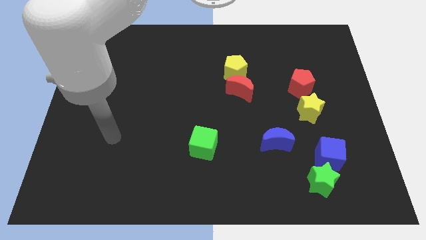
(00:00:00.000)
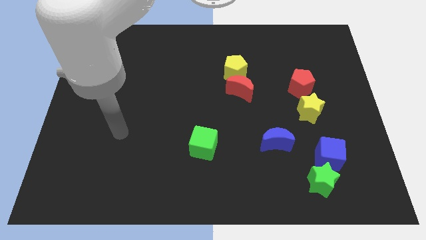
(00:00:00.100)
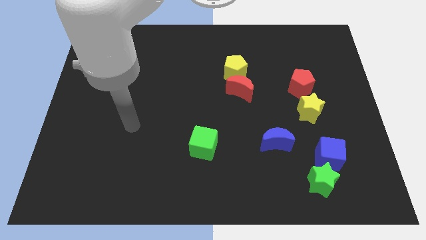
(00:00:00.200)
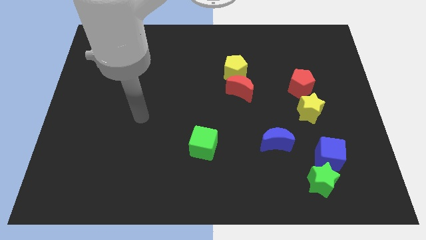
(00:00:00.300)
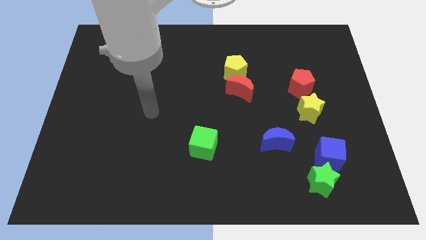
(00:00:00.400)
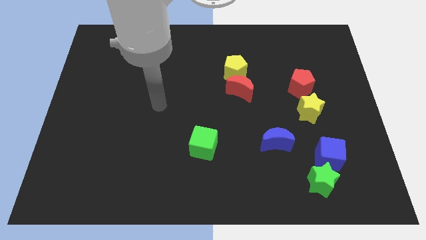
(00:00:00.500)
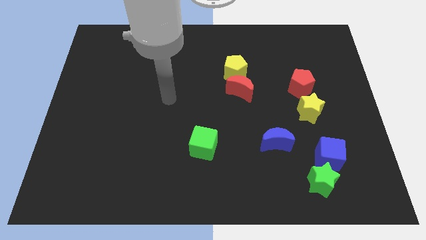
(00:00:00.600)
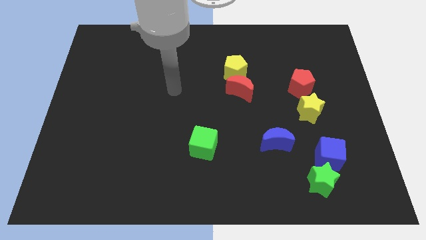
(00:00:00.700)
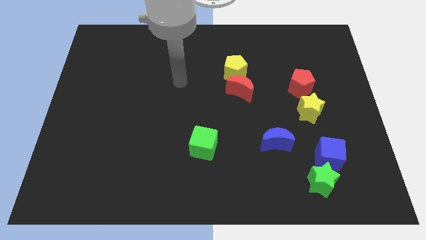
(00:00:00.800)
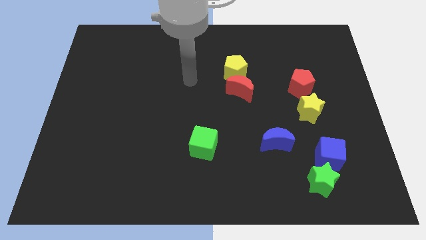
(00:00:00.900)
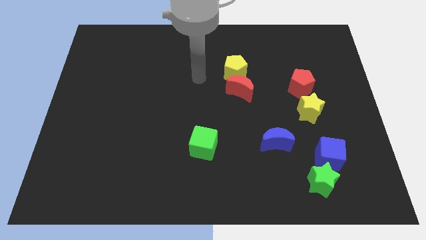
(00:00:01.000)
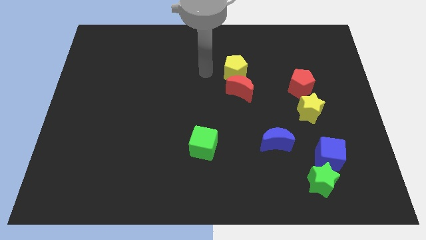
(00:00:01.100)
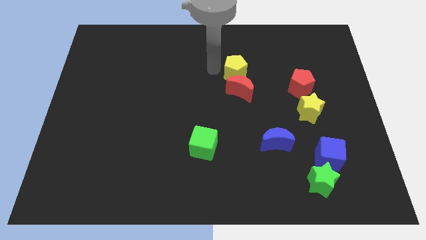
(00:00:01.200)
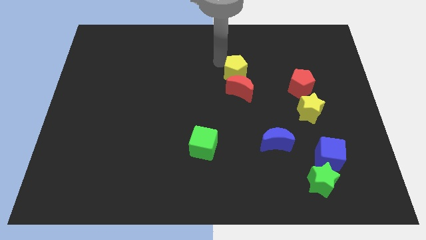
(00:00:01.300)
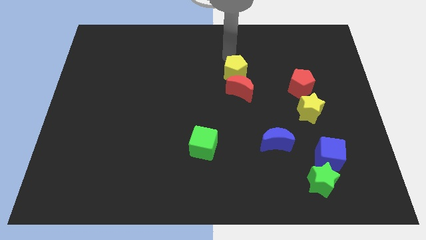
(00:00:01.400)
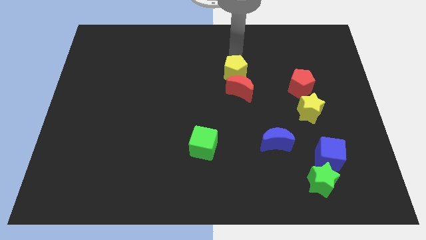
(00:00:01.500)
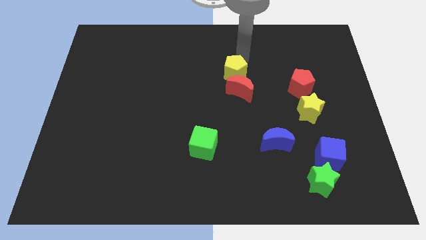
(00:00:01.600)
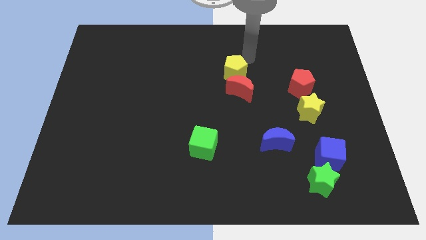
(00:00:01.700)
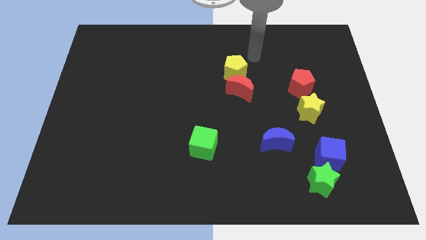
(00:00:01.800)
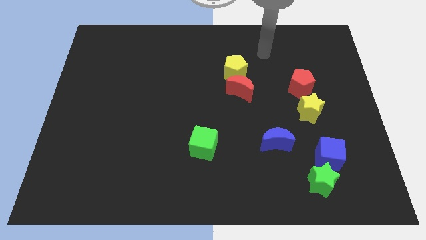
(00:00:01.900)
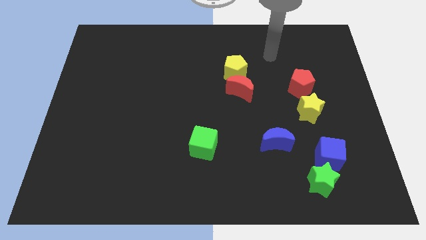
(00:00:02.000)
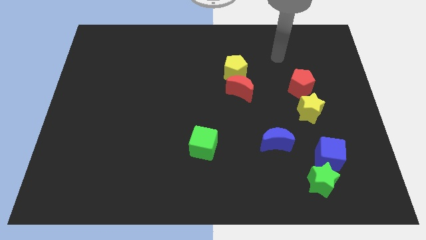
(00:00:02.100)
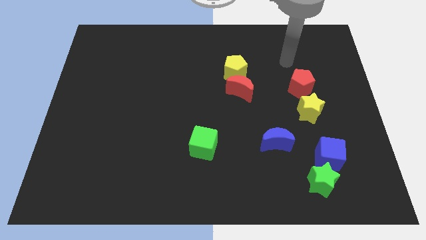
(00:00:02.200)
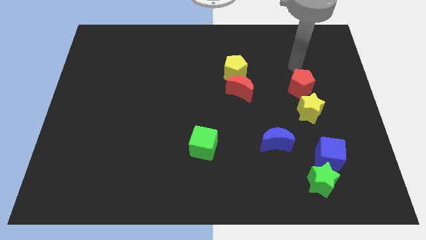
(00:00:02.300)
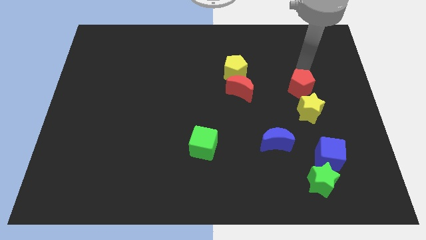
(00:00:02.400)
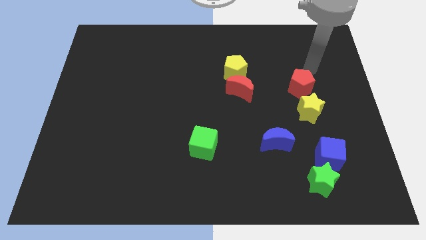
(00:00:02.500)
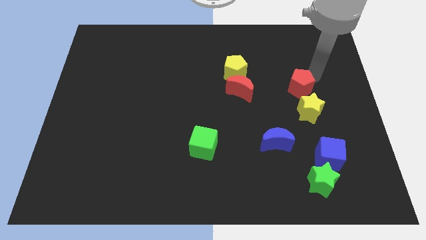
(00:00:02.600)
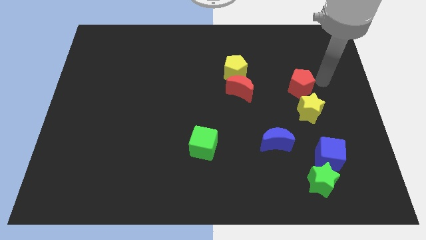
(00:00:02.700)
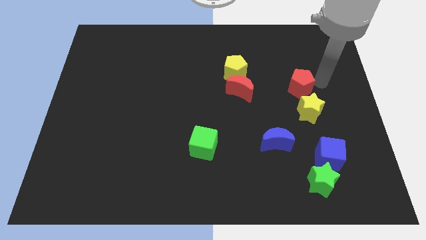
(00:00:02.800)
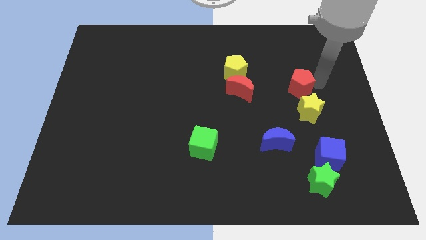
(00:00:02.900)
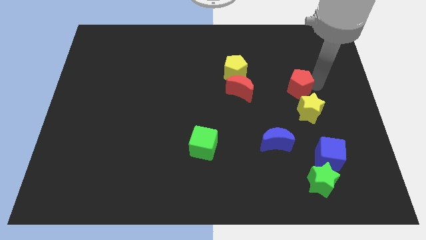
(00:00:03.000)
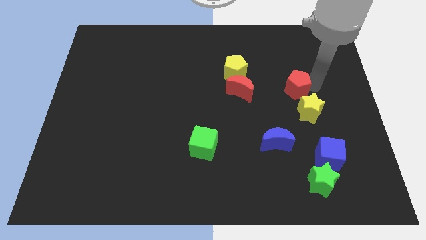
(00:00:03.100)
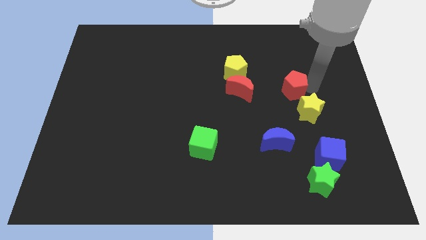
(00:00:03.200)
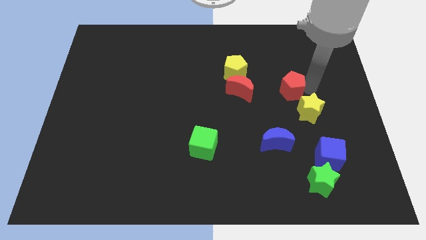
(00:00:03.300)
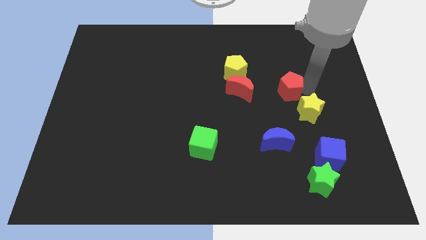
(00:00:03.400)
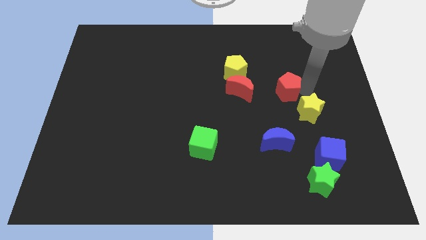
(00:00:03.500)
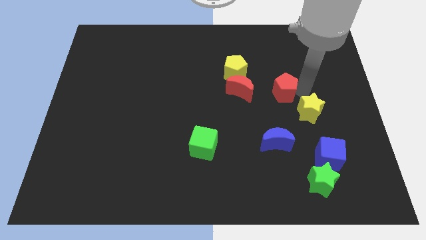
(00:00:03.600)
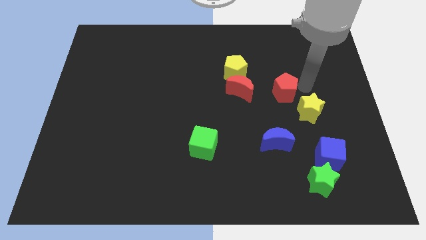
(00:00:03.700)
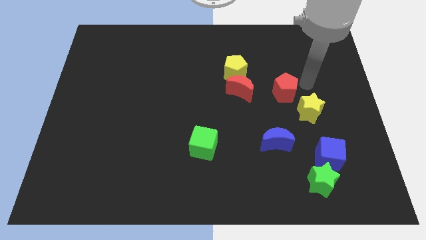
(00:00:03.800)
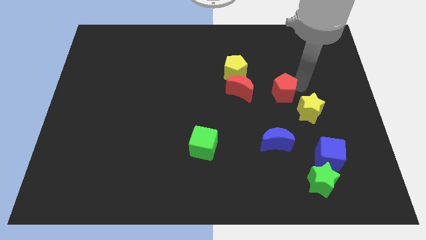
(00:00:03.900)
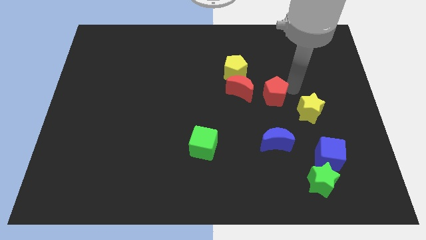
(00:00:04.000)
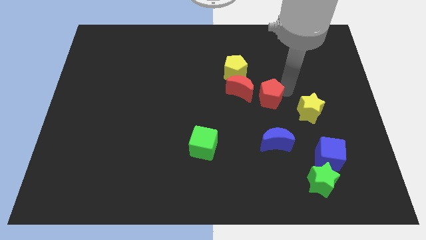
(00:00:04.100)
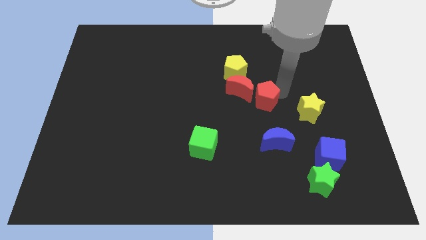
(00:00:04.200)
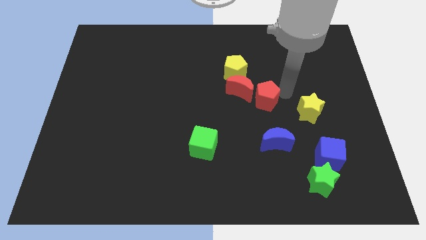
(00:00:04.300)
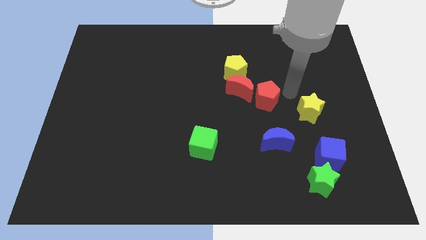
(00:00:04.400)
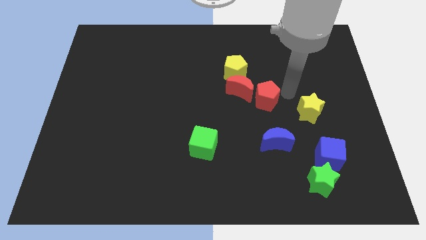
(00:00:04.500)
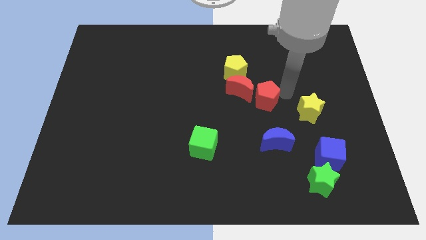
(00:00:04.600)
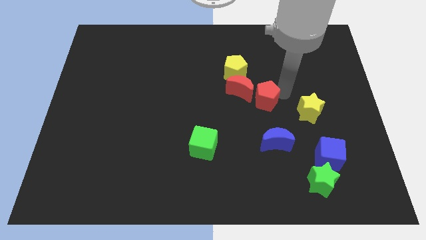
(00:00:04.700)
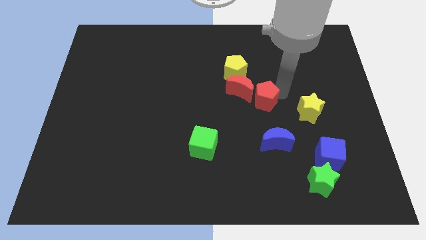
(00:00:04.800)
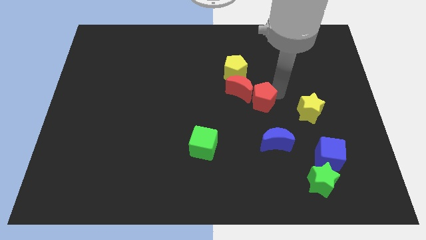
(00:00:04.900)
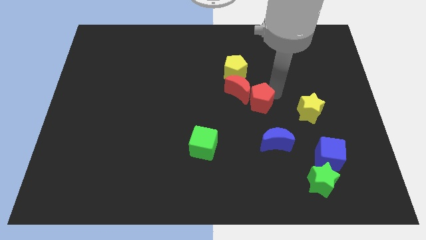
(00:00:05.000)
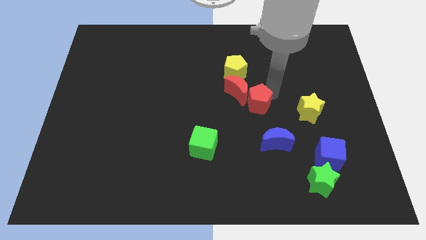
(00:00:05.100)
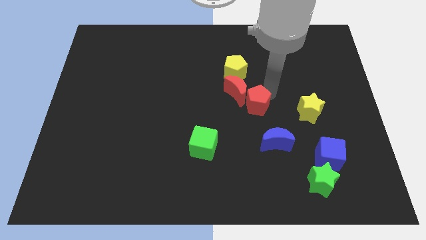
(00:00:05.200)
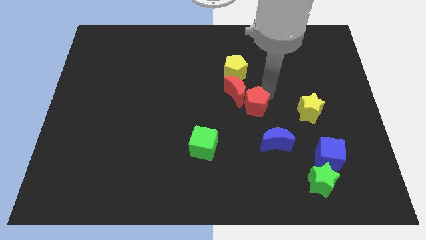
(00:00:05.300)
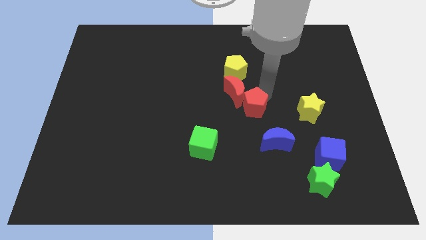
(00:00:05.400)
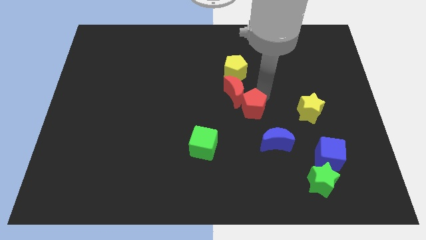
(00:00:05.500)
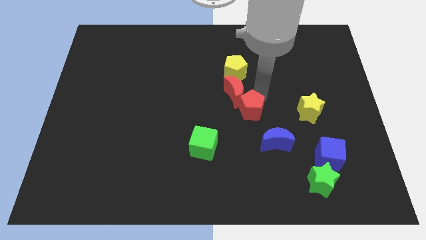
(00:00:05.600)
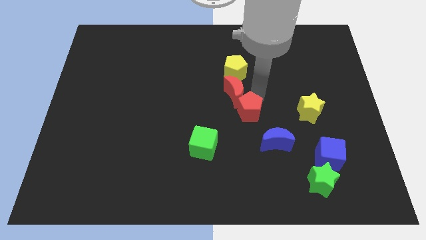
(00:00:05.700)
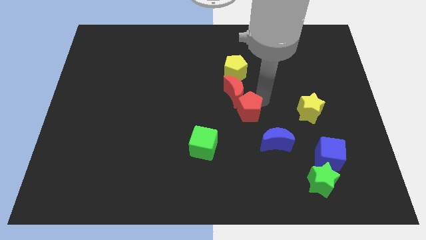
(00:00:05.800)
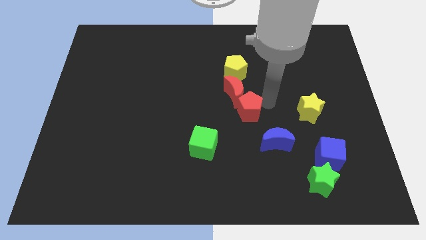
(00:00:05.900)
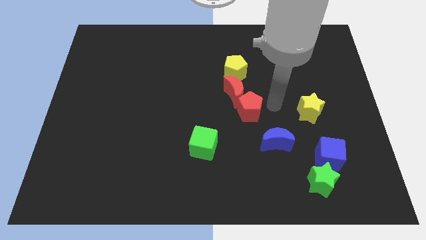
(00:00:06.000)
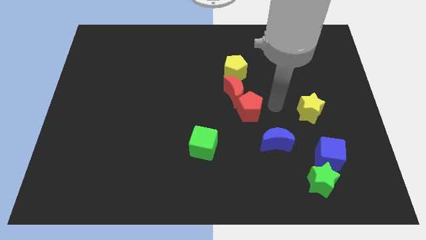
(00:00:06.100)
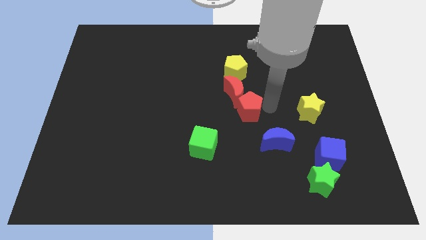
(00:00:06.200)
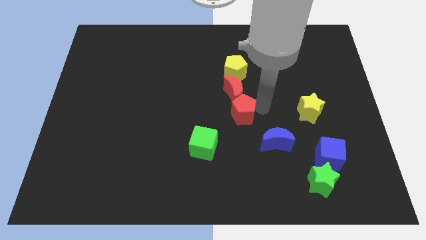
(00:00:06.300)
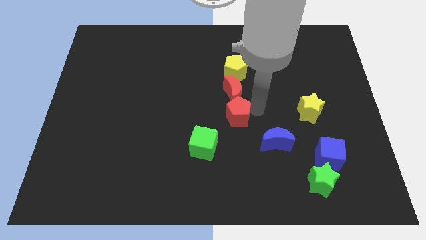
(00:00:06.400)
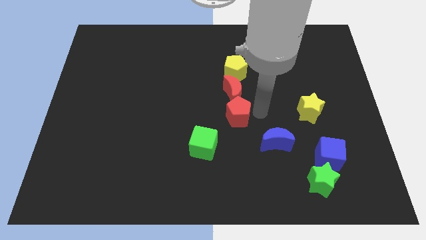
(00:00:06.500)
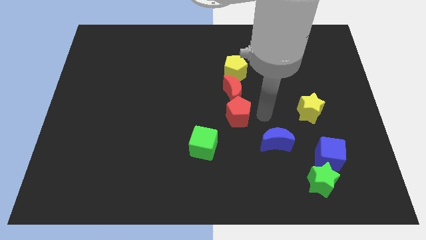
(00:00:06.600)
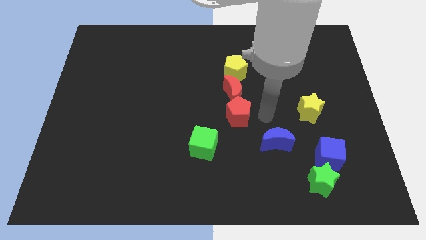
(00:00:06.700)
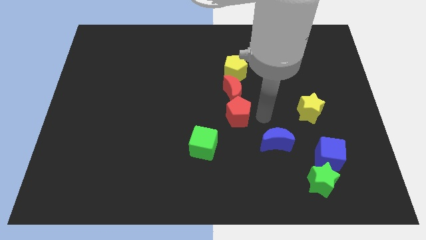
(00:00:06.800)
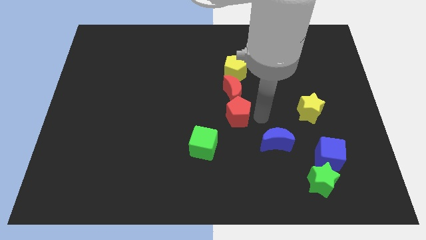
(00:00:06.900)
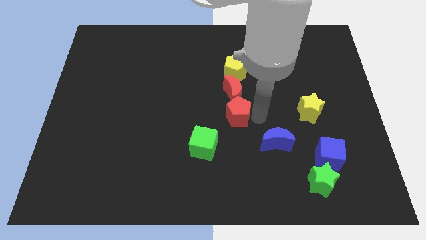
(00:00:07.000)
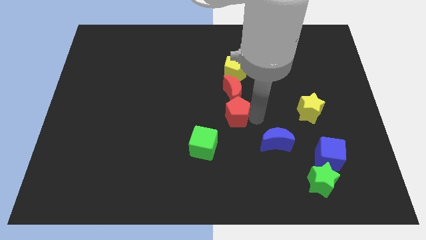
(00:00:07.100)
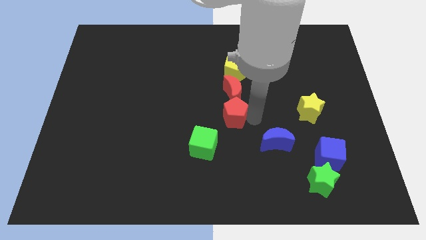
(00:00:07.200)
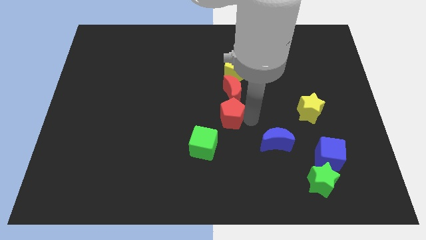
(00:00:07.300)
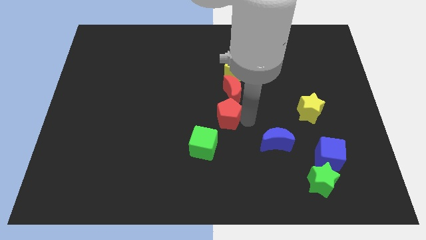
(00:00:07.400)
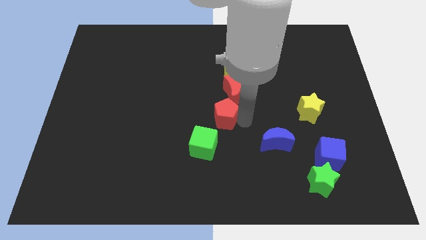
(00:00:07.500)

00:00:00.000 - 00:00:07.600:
put the red pentagon to the top side of the green cube
